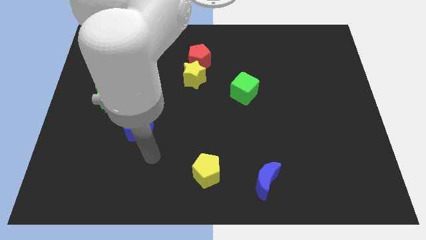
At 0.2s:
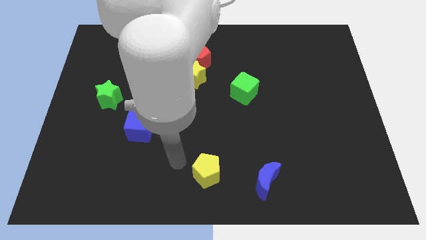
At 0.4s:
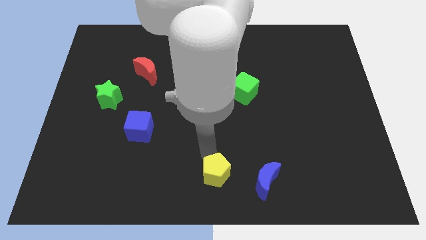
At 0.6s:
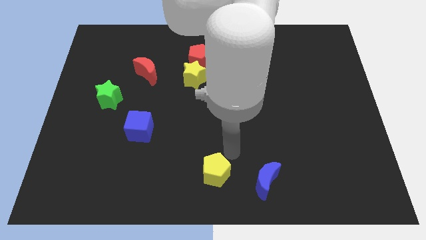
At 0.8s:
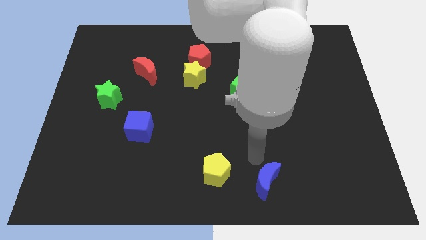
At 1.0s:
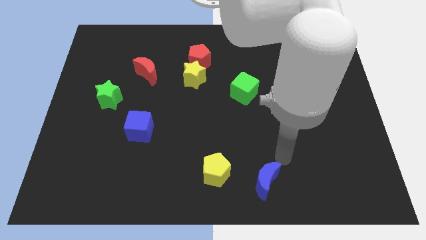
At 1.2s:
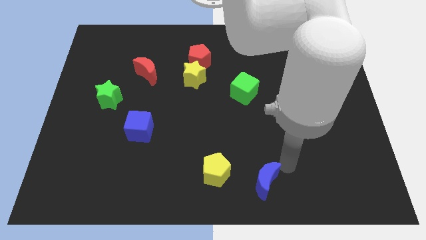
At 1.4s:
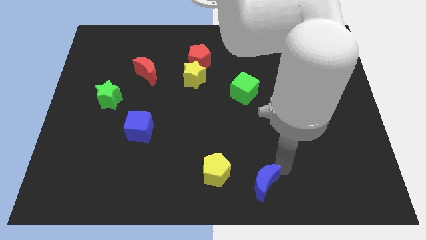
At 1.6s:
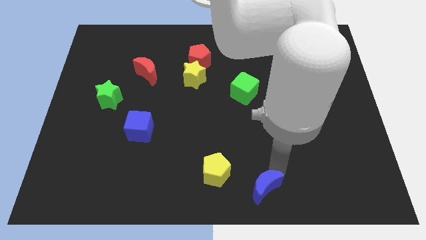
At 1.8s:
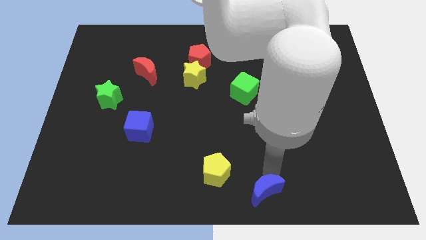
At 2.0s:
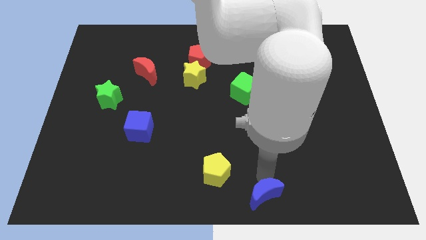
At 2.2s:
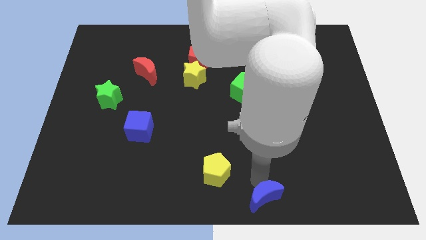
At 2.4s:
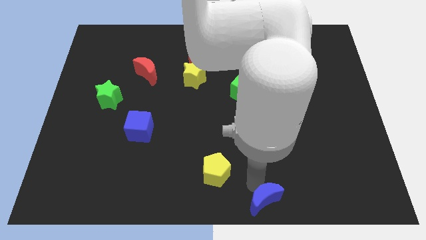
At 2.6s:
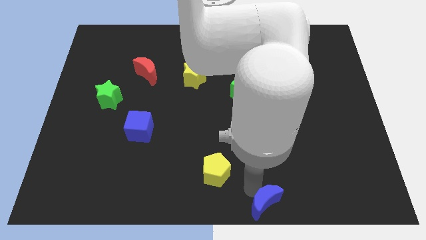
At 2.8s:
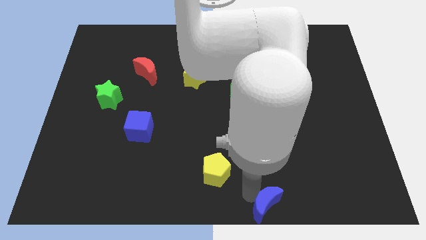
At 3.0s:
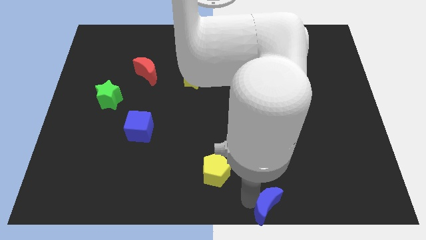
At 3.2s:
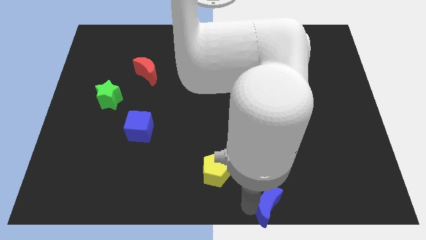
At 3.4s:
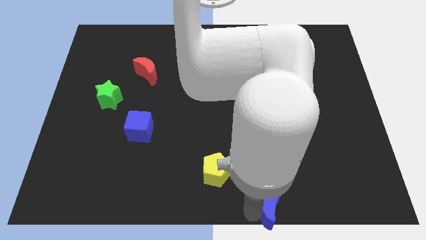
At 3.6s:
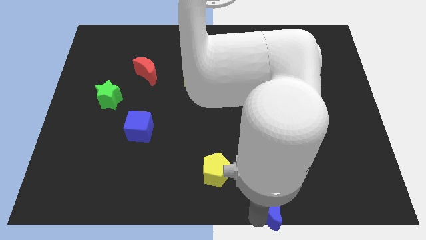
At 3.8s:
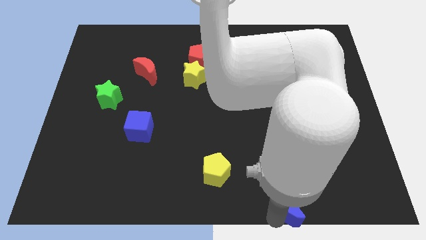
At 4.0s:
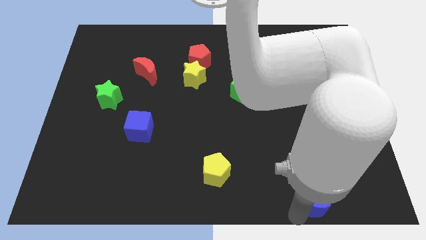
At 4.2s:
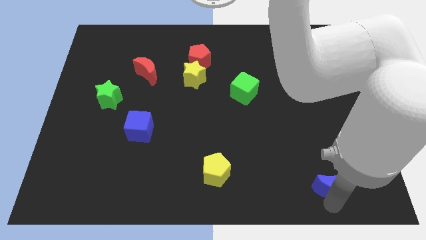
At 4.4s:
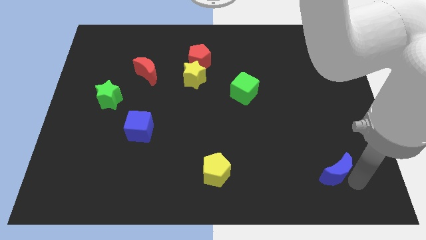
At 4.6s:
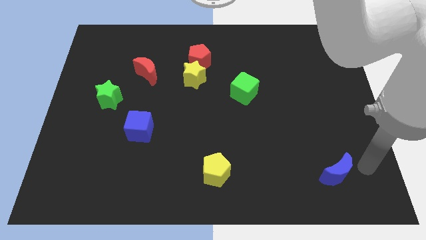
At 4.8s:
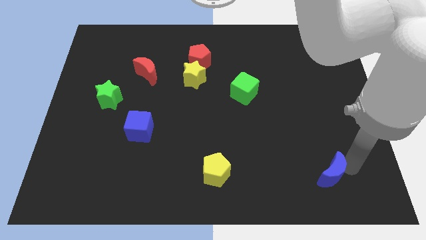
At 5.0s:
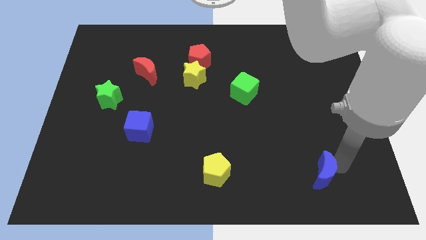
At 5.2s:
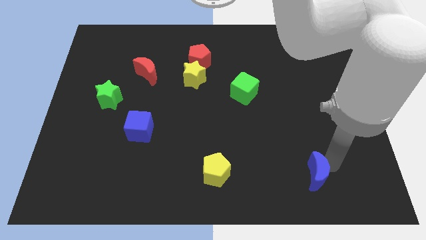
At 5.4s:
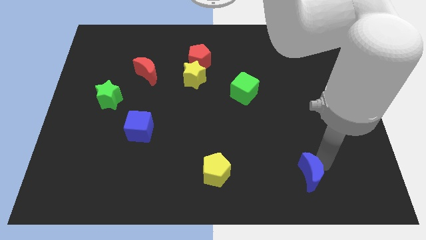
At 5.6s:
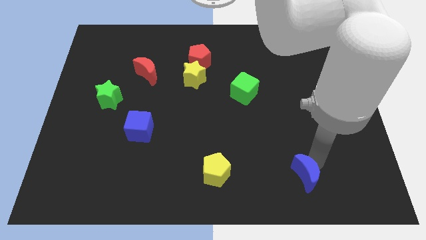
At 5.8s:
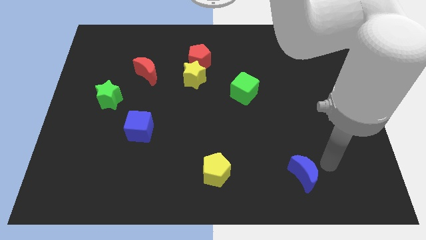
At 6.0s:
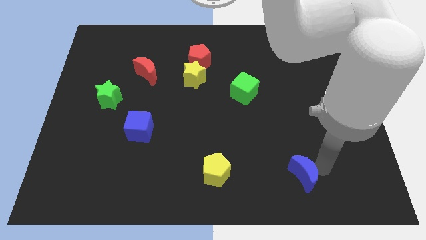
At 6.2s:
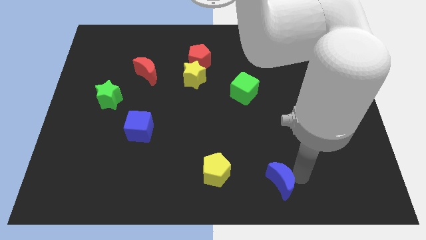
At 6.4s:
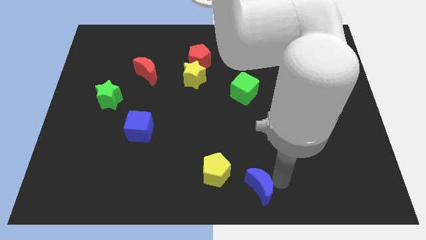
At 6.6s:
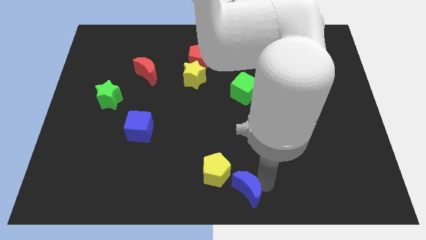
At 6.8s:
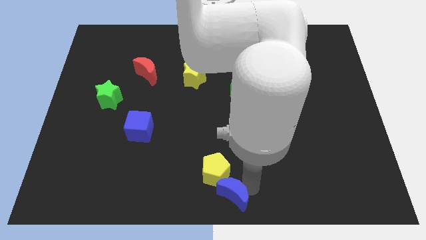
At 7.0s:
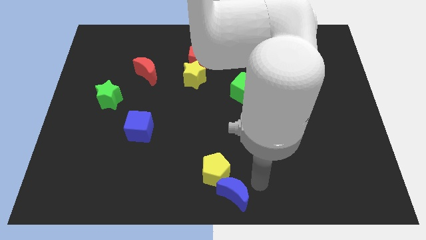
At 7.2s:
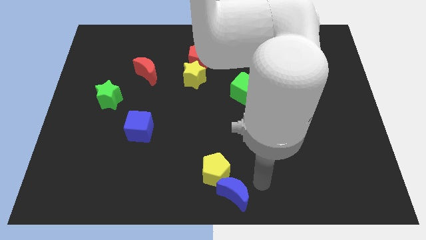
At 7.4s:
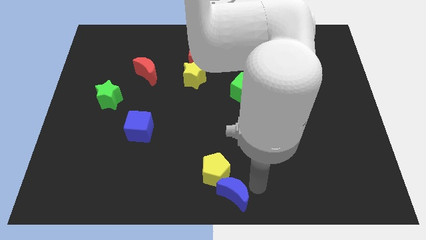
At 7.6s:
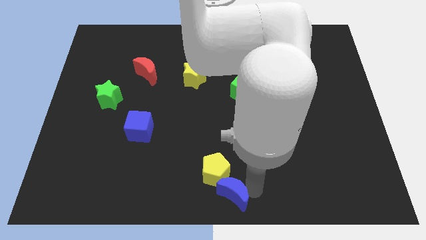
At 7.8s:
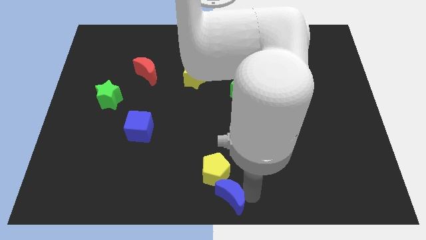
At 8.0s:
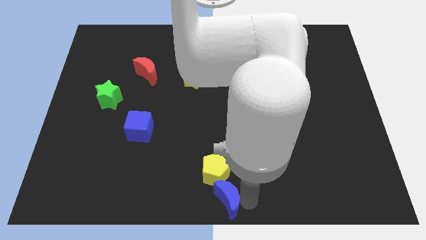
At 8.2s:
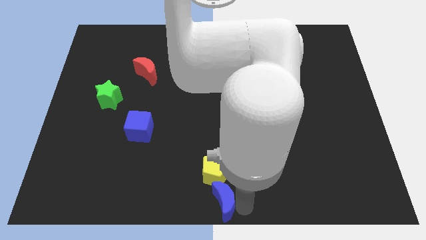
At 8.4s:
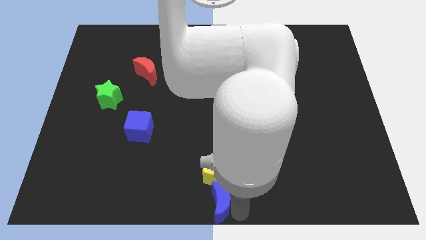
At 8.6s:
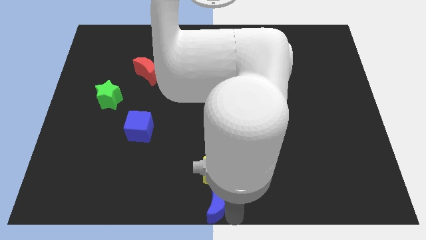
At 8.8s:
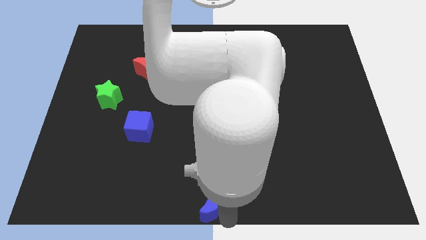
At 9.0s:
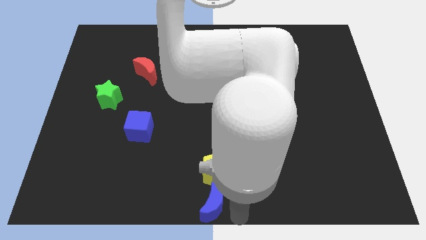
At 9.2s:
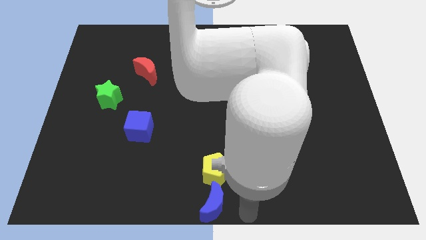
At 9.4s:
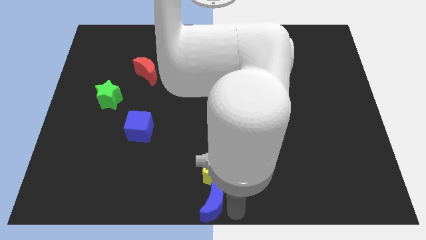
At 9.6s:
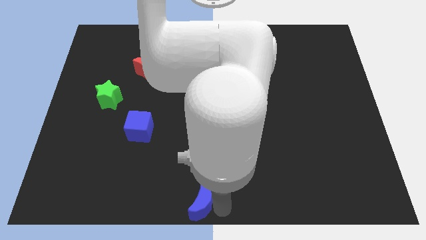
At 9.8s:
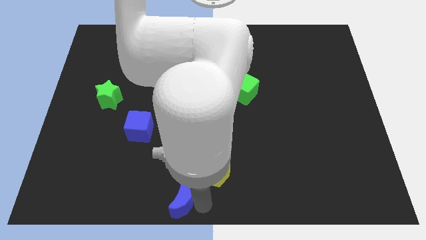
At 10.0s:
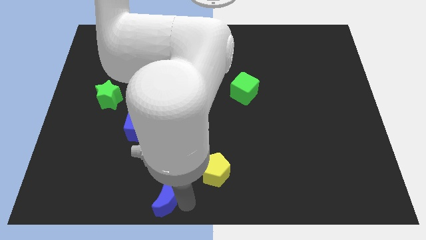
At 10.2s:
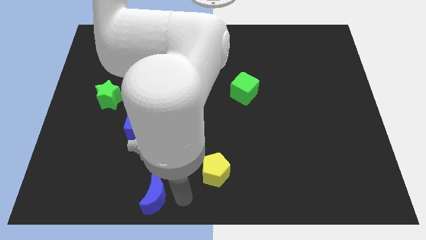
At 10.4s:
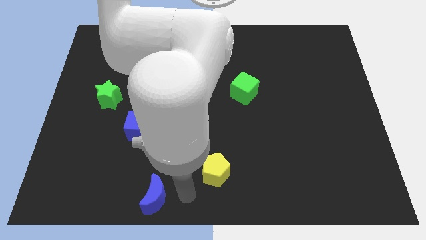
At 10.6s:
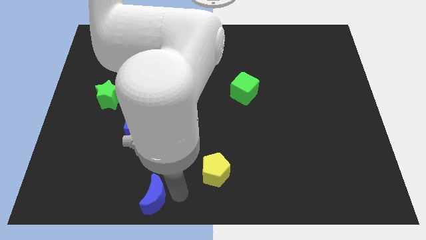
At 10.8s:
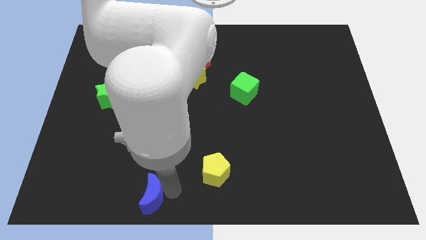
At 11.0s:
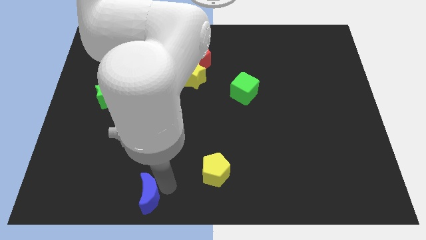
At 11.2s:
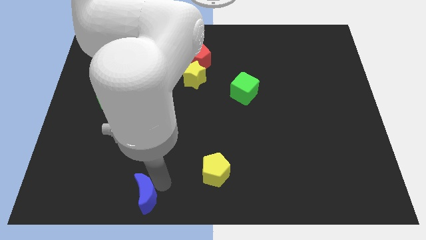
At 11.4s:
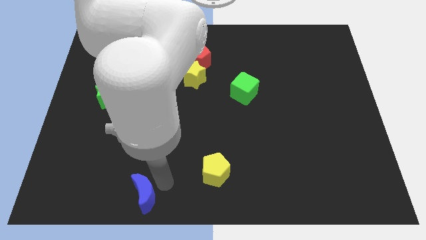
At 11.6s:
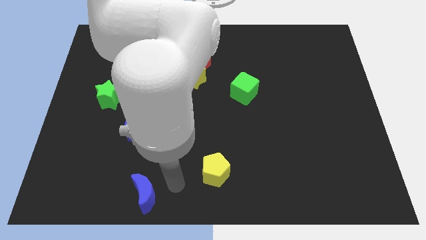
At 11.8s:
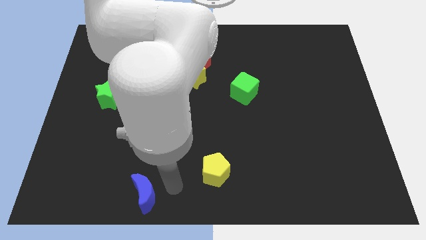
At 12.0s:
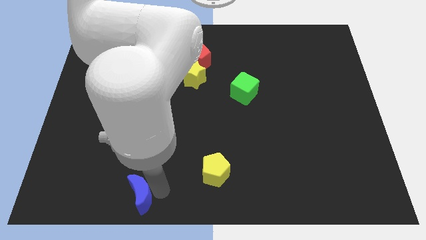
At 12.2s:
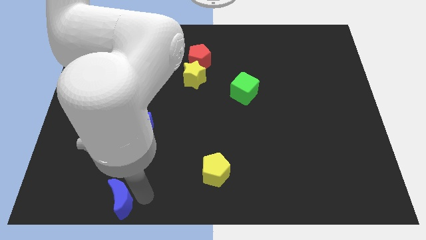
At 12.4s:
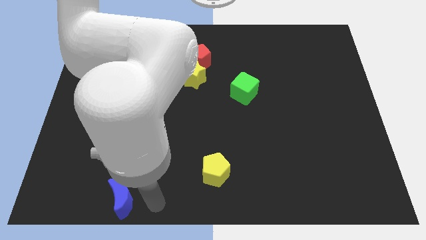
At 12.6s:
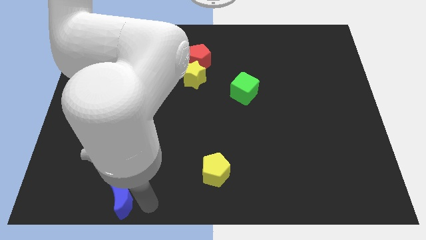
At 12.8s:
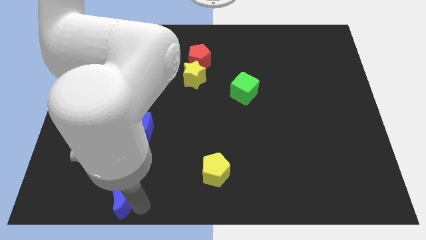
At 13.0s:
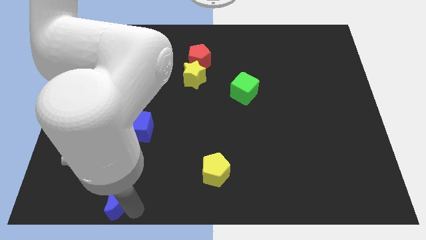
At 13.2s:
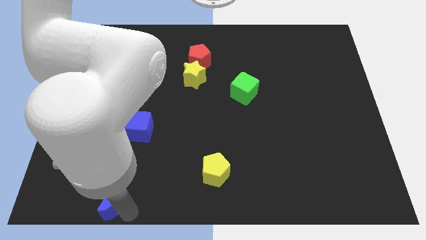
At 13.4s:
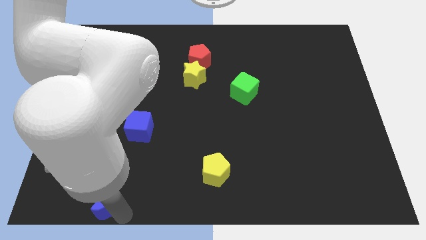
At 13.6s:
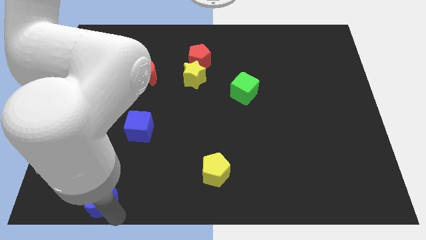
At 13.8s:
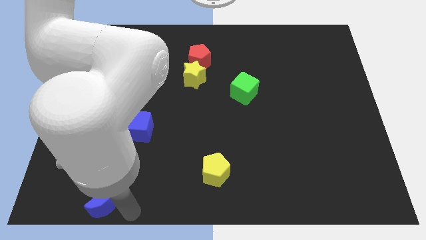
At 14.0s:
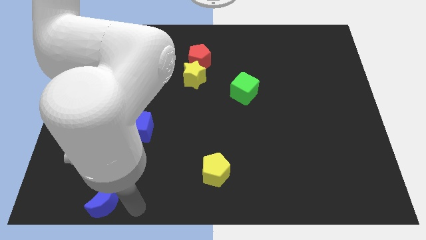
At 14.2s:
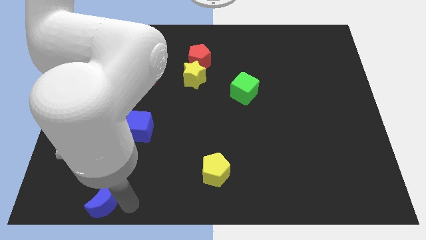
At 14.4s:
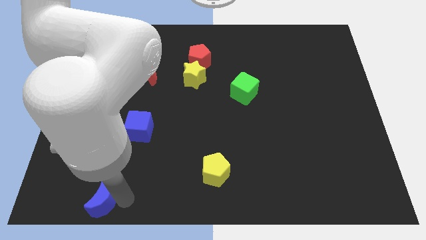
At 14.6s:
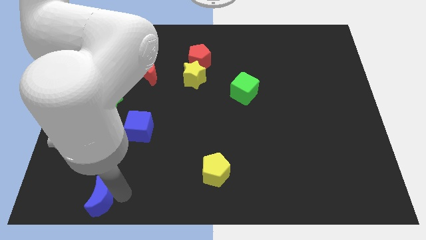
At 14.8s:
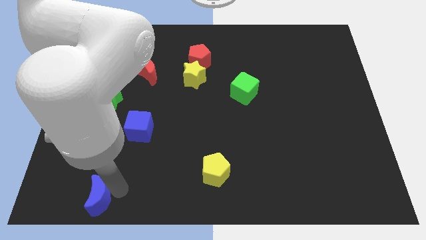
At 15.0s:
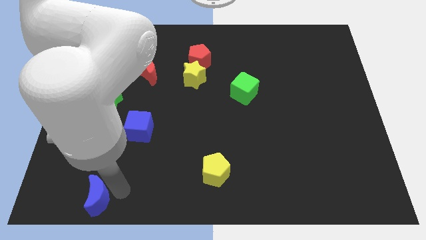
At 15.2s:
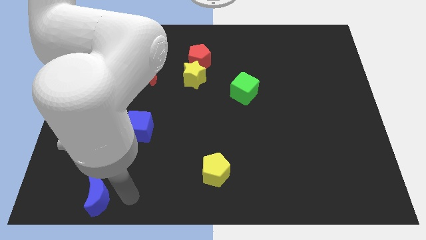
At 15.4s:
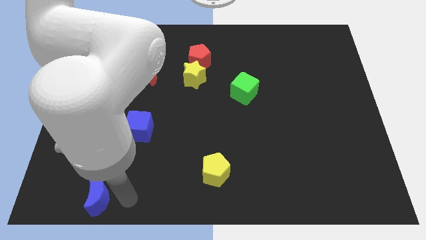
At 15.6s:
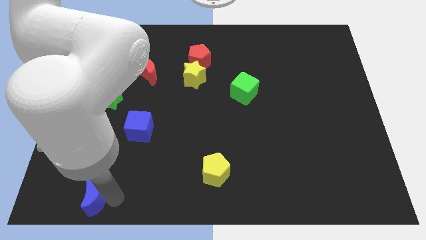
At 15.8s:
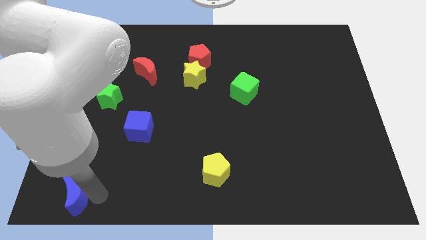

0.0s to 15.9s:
push the blue moon to the bottom left of the board
